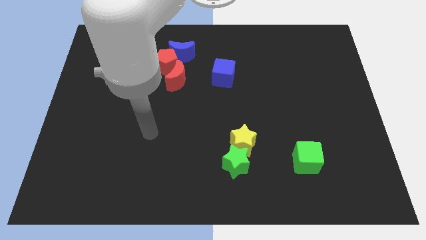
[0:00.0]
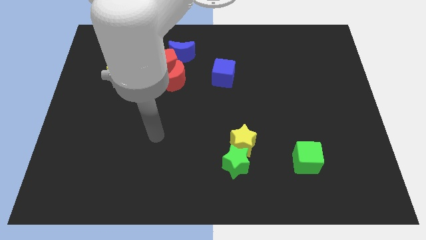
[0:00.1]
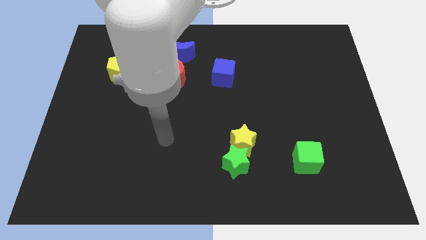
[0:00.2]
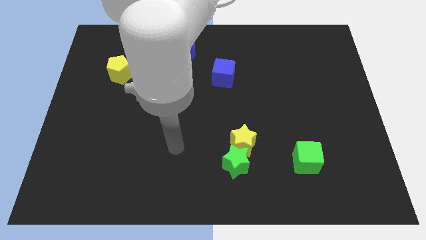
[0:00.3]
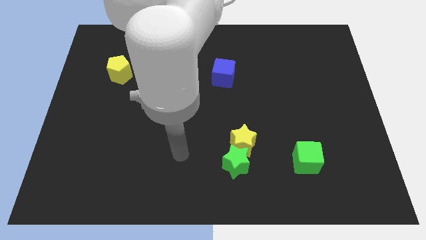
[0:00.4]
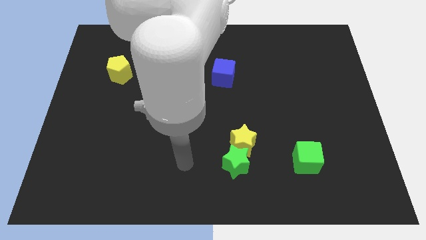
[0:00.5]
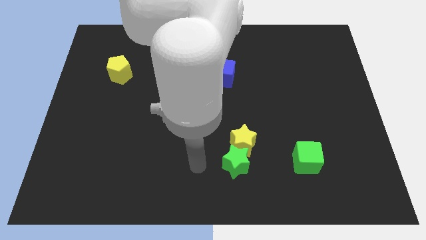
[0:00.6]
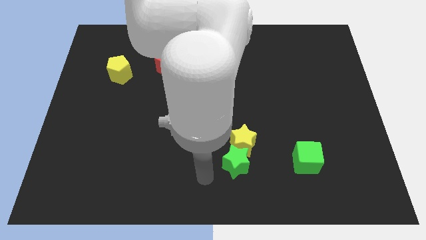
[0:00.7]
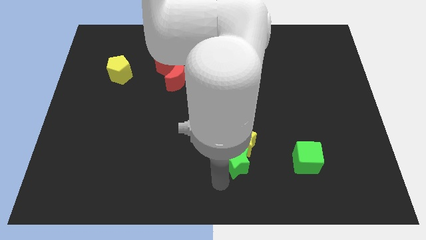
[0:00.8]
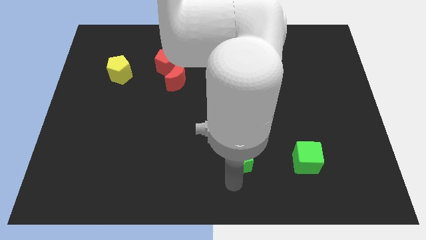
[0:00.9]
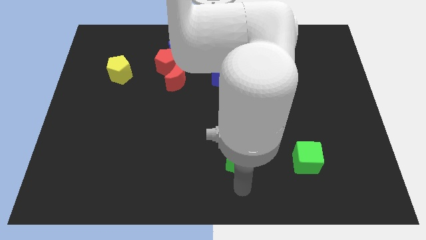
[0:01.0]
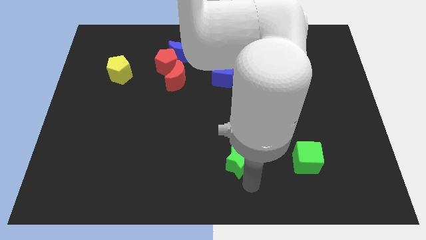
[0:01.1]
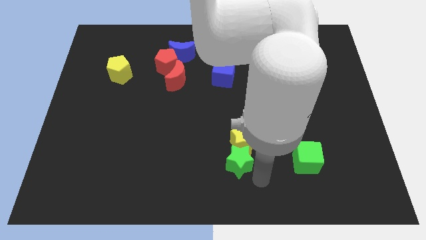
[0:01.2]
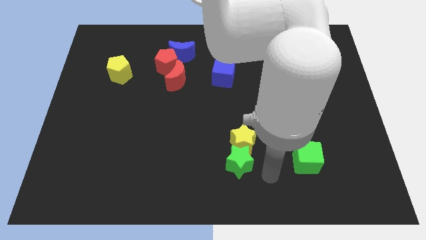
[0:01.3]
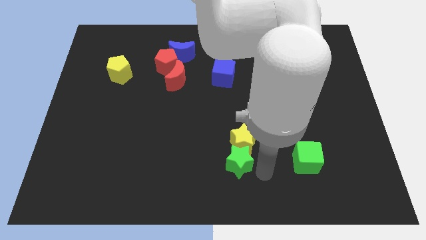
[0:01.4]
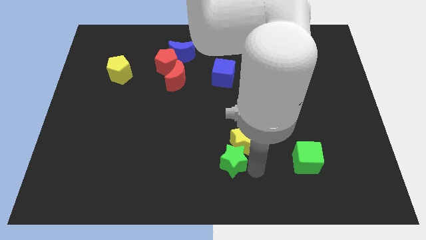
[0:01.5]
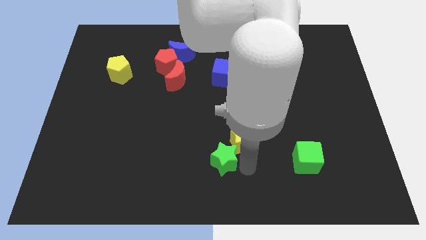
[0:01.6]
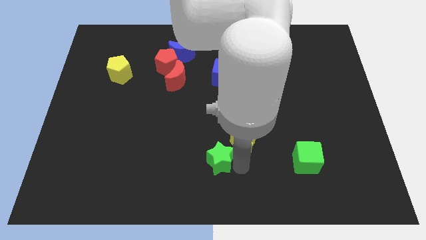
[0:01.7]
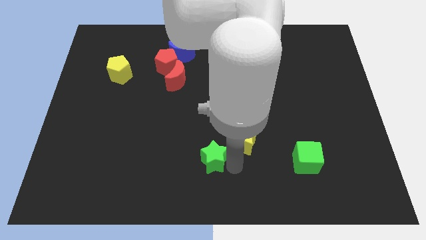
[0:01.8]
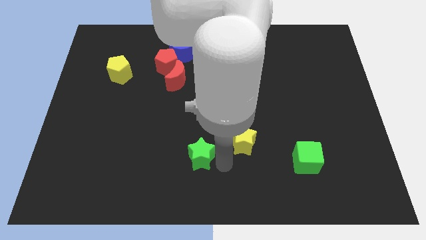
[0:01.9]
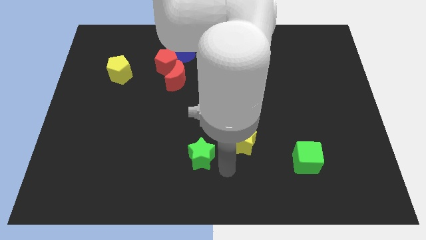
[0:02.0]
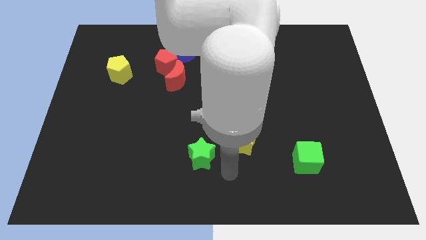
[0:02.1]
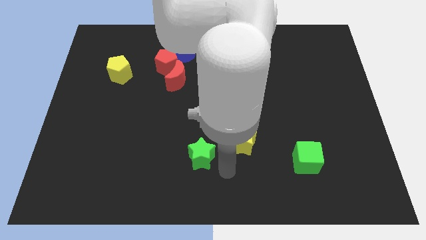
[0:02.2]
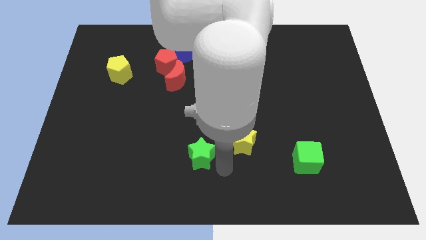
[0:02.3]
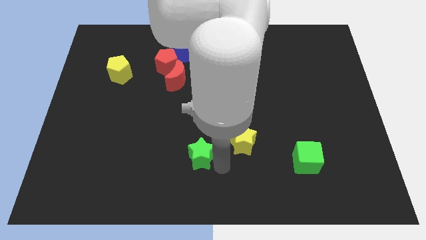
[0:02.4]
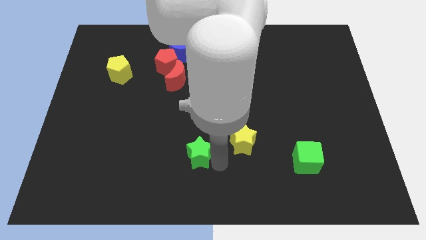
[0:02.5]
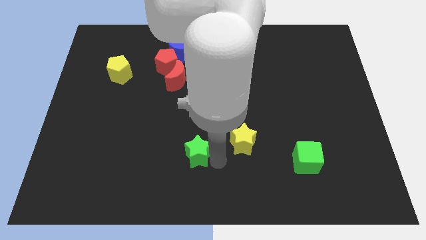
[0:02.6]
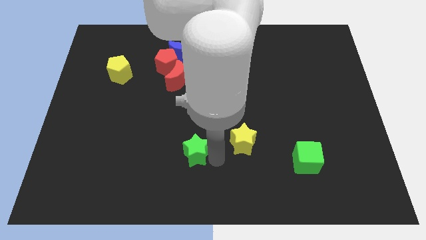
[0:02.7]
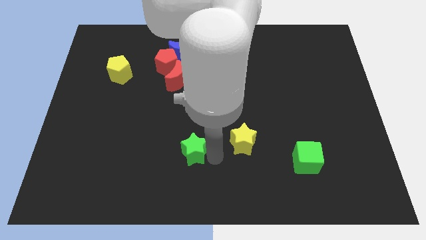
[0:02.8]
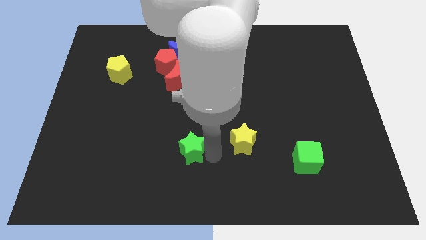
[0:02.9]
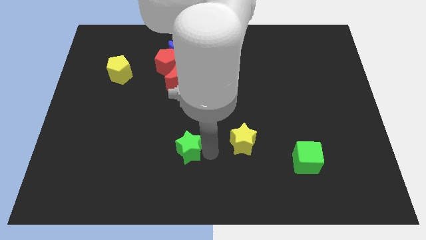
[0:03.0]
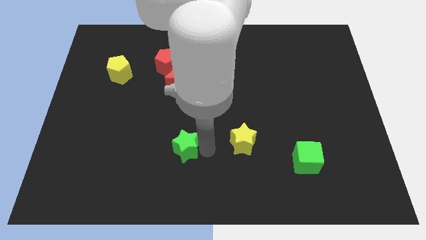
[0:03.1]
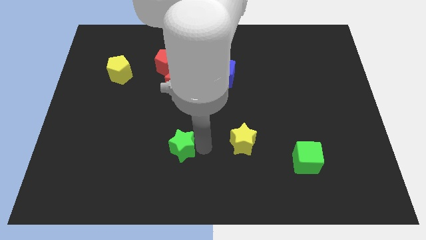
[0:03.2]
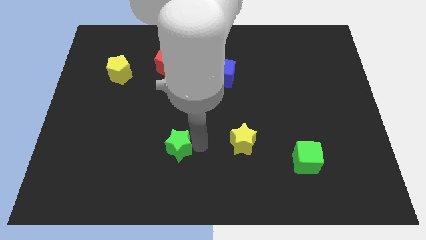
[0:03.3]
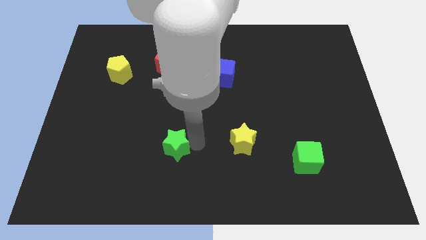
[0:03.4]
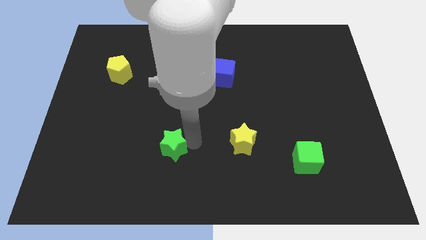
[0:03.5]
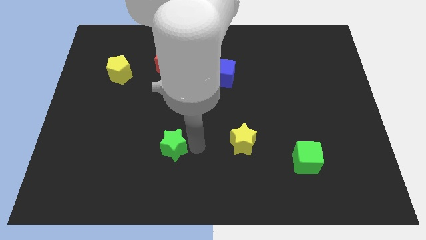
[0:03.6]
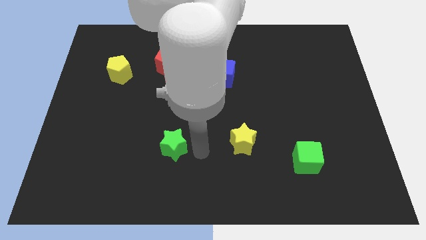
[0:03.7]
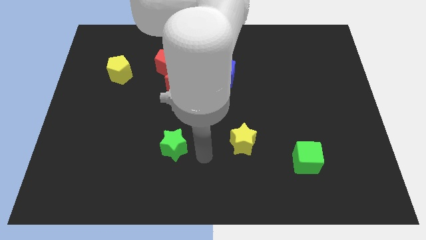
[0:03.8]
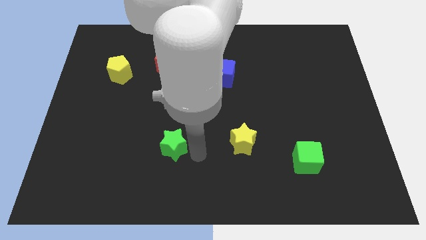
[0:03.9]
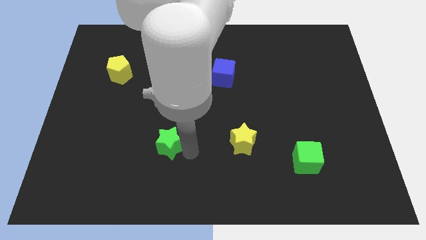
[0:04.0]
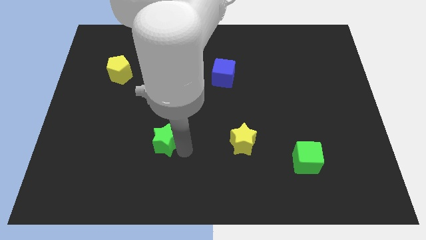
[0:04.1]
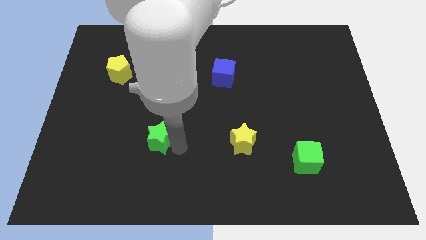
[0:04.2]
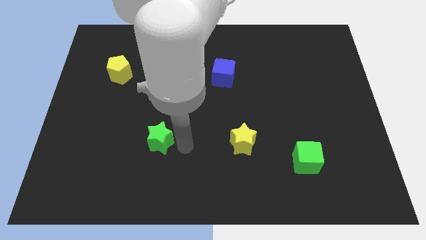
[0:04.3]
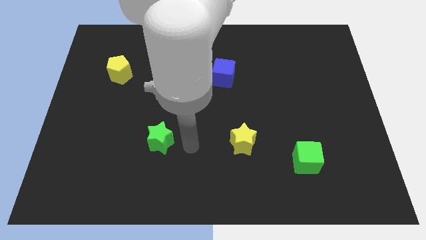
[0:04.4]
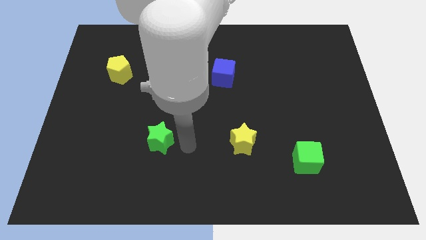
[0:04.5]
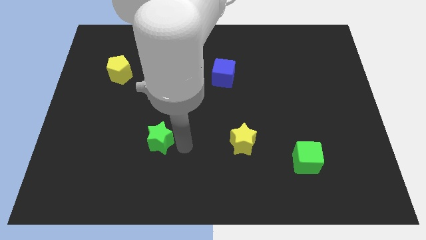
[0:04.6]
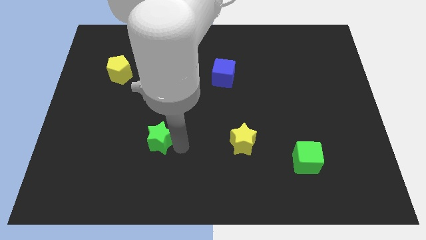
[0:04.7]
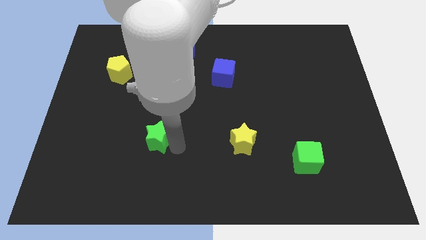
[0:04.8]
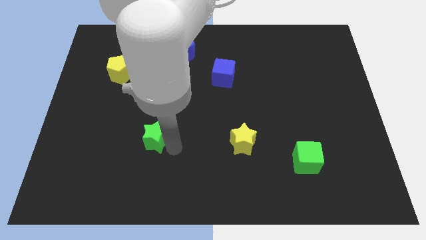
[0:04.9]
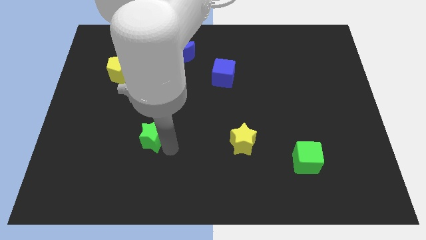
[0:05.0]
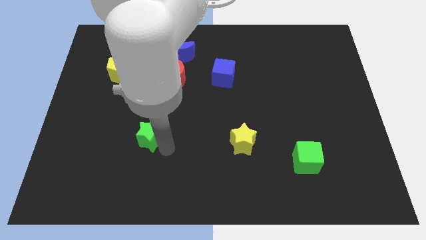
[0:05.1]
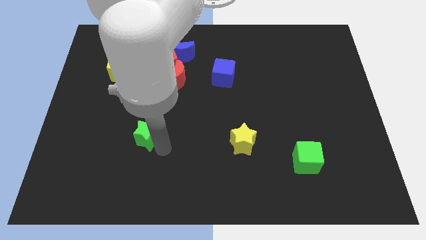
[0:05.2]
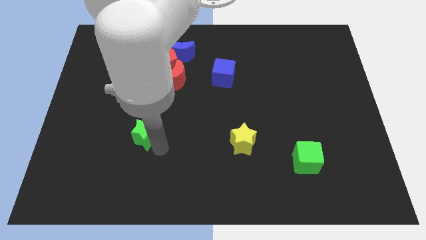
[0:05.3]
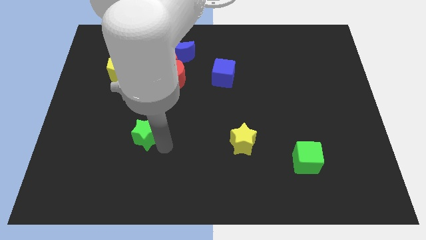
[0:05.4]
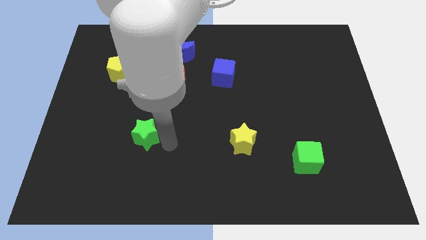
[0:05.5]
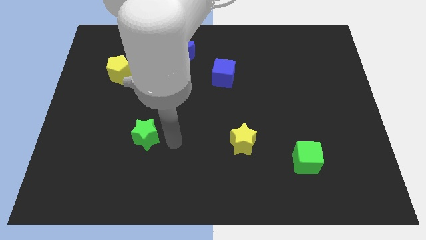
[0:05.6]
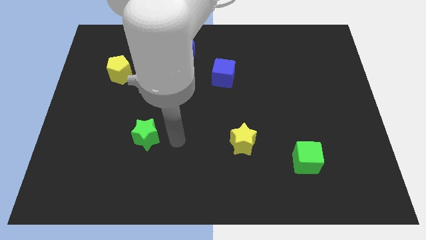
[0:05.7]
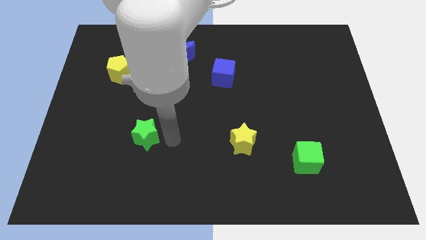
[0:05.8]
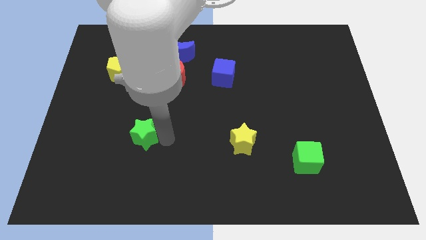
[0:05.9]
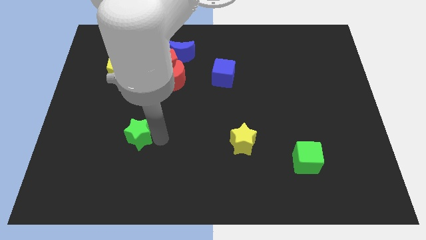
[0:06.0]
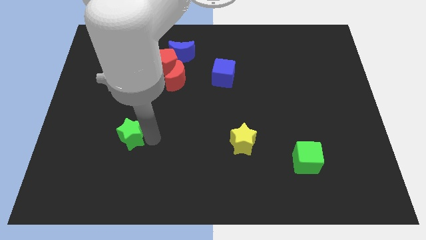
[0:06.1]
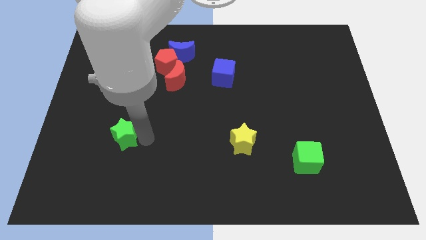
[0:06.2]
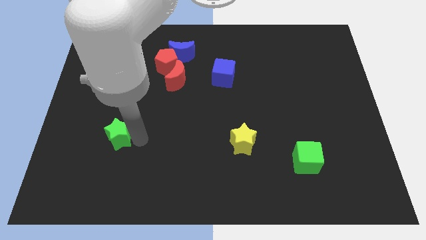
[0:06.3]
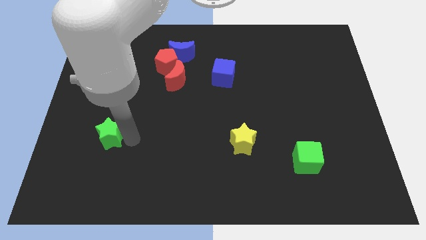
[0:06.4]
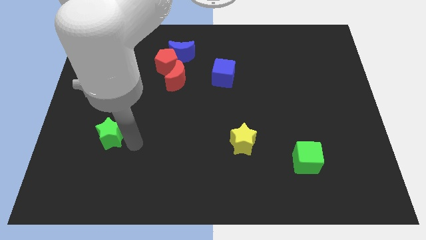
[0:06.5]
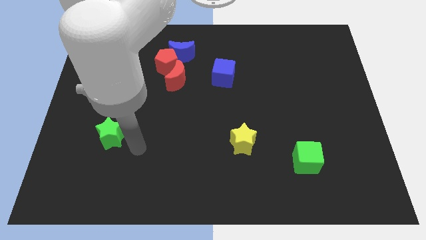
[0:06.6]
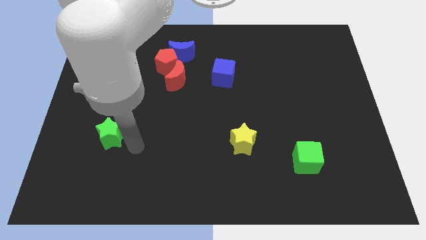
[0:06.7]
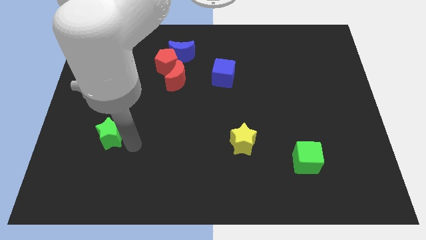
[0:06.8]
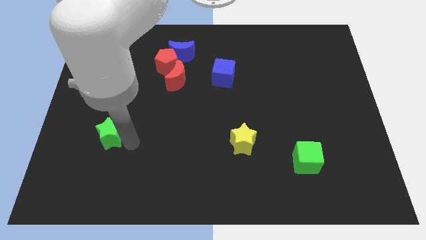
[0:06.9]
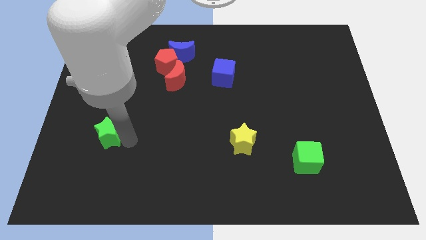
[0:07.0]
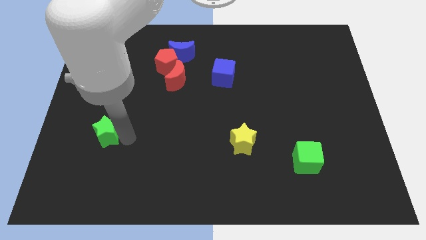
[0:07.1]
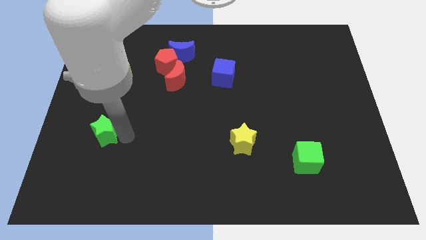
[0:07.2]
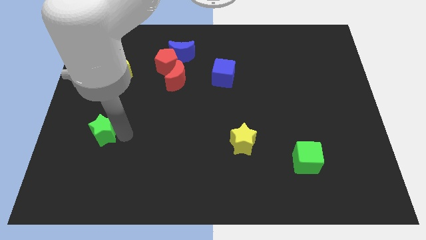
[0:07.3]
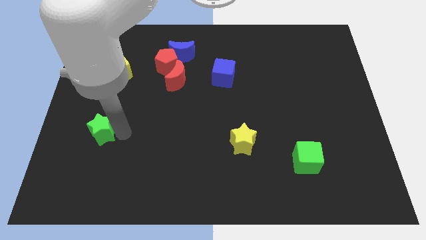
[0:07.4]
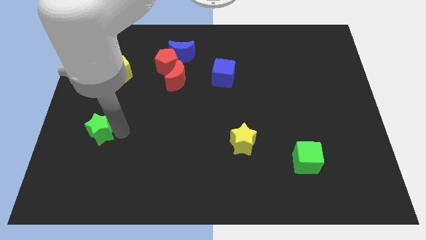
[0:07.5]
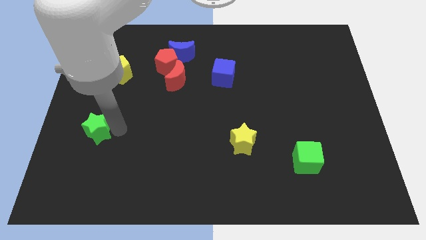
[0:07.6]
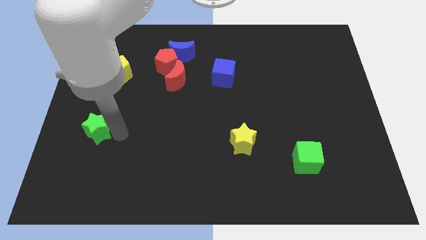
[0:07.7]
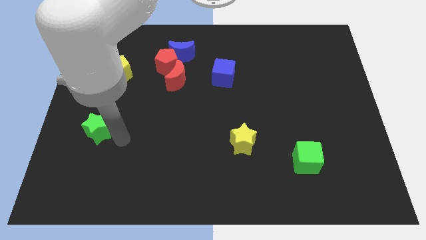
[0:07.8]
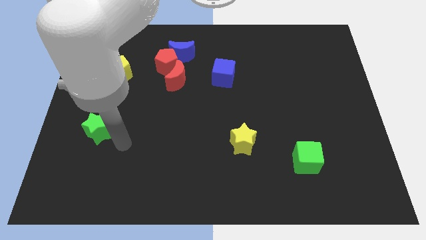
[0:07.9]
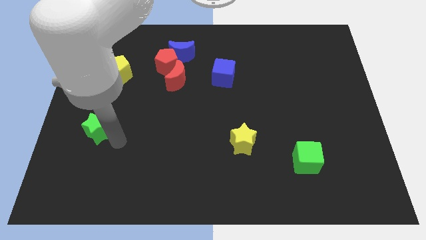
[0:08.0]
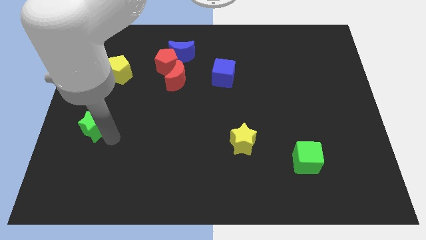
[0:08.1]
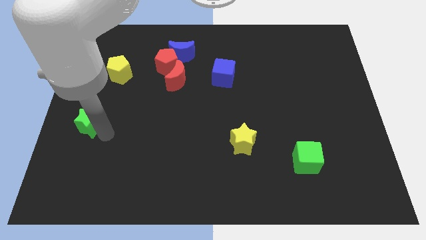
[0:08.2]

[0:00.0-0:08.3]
slide the green star to the left side
